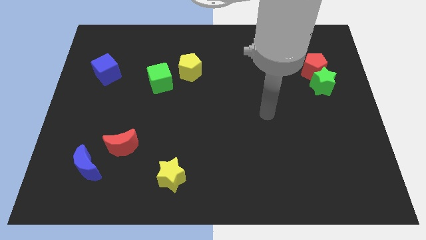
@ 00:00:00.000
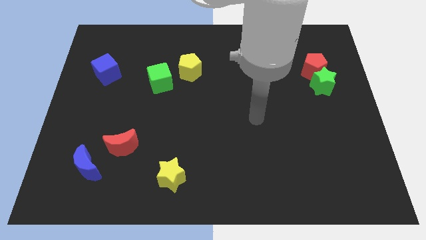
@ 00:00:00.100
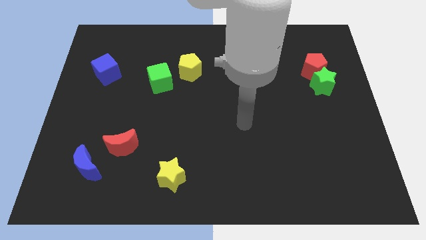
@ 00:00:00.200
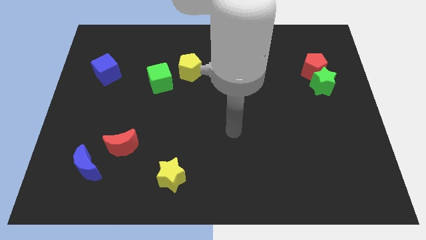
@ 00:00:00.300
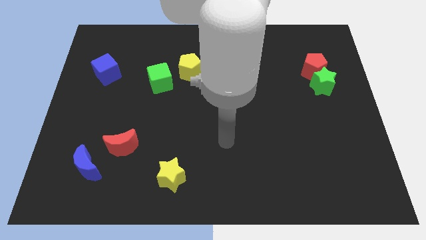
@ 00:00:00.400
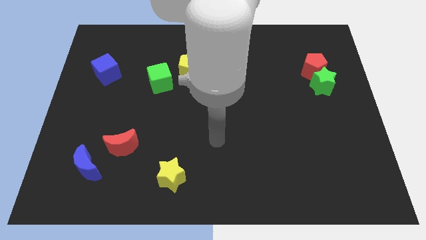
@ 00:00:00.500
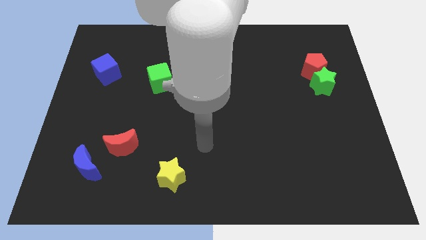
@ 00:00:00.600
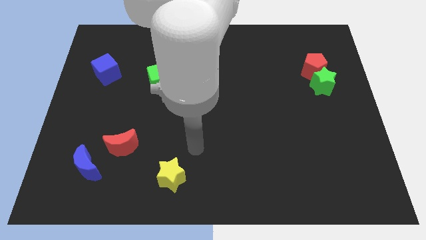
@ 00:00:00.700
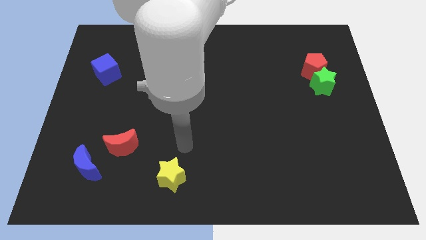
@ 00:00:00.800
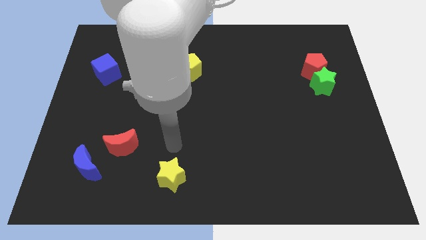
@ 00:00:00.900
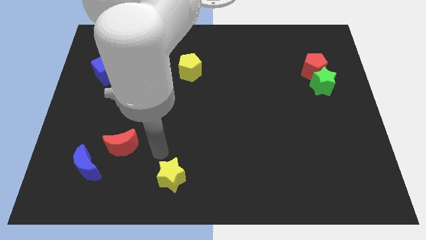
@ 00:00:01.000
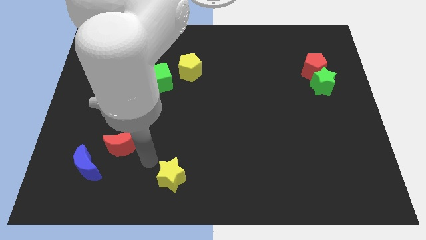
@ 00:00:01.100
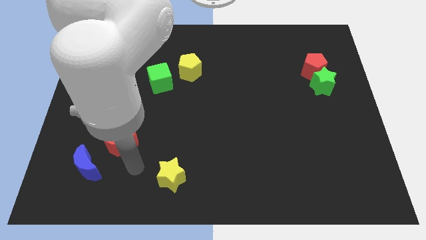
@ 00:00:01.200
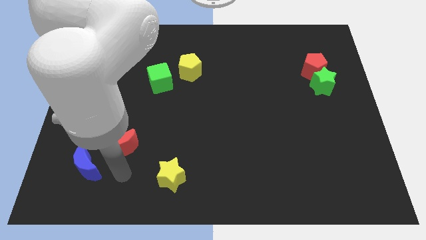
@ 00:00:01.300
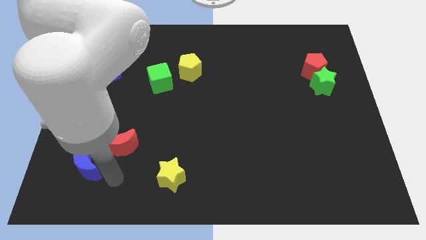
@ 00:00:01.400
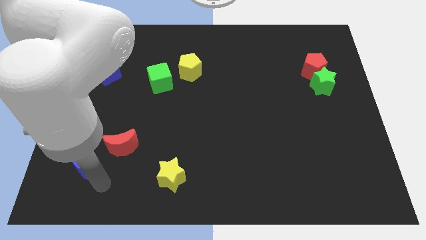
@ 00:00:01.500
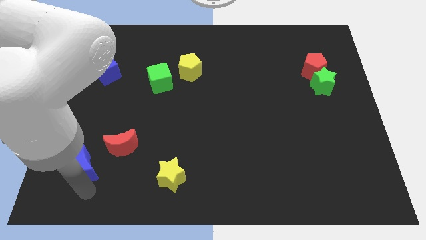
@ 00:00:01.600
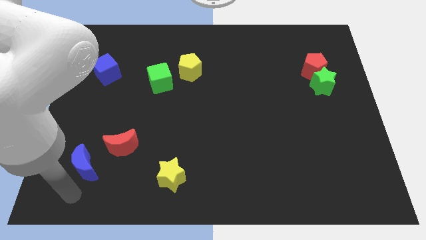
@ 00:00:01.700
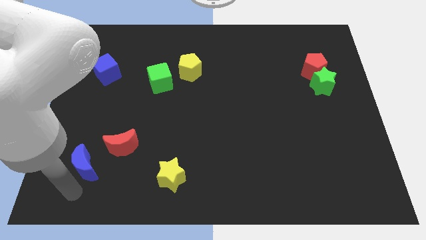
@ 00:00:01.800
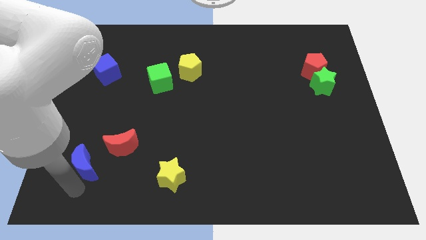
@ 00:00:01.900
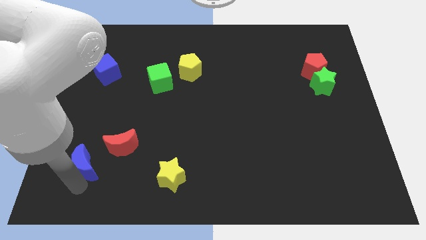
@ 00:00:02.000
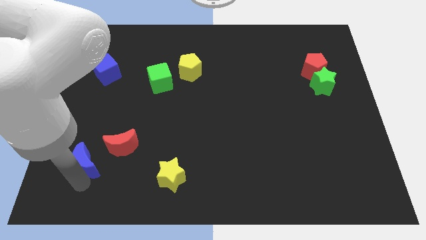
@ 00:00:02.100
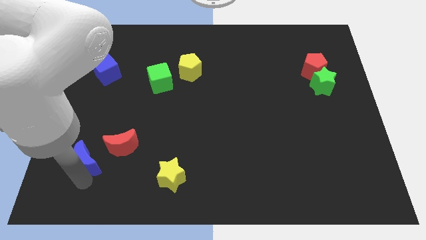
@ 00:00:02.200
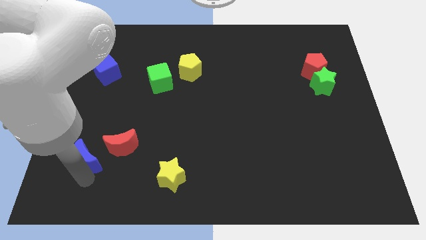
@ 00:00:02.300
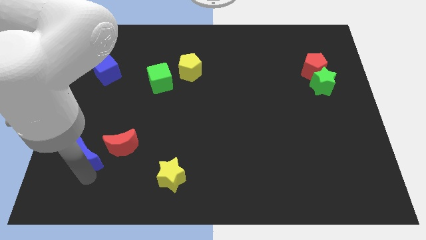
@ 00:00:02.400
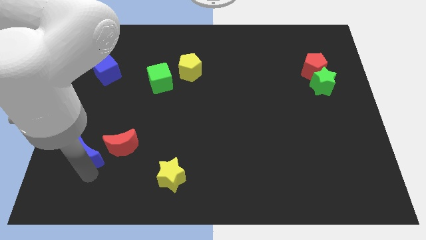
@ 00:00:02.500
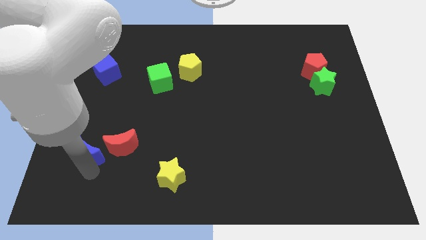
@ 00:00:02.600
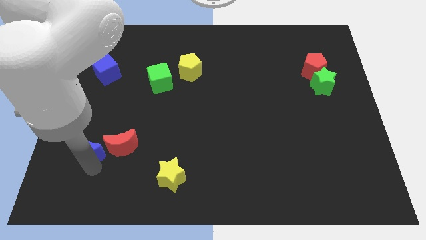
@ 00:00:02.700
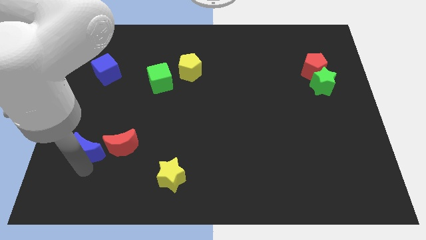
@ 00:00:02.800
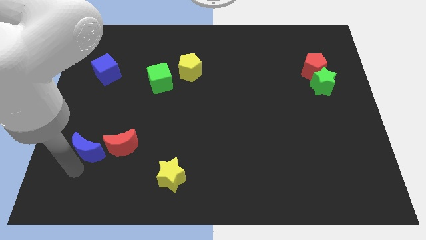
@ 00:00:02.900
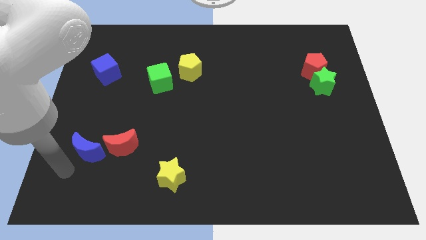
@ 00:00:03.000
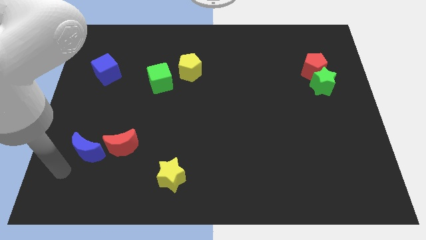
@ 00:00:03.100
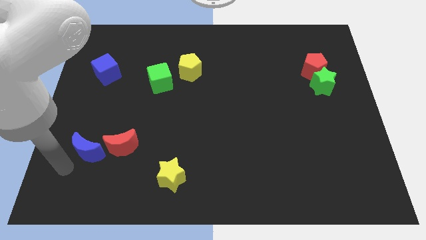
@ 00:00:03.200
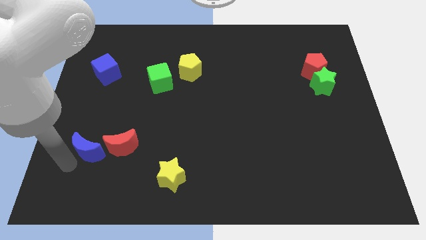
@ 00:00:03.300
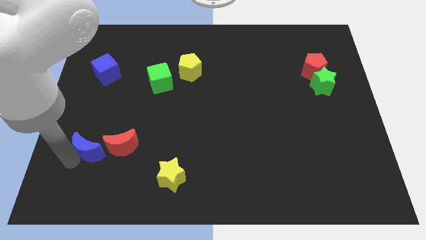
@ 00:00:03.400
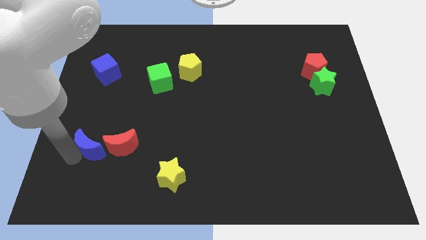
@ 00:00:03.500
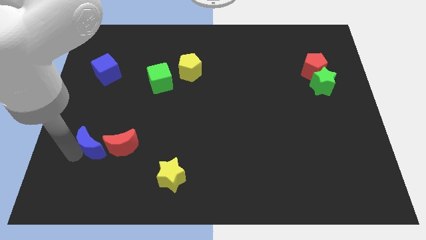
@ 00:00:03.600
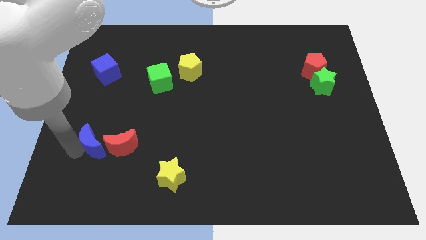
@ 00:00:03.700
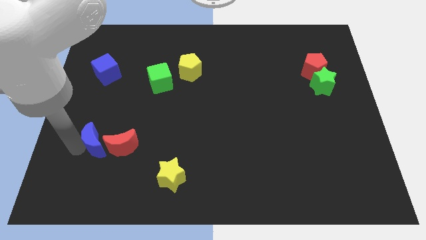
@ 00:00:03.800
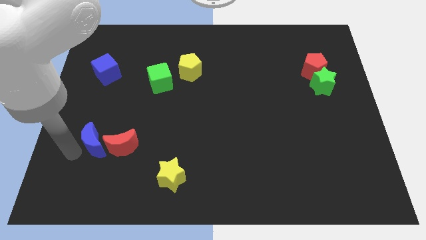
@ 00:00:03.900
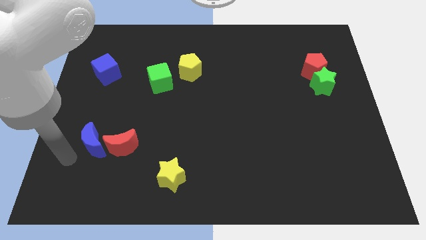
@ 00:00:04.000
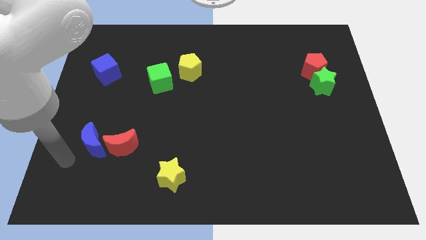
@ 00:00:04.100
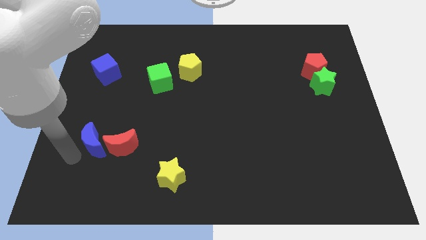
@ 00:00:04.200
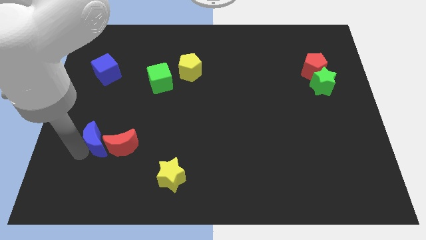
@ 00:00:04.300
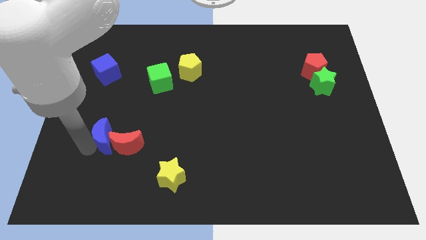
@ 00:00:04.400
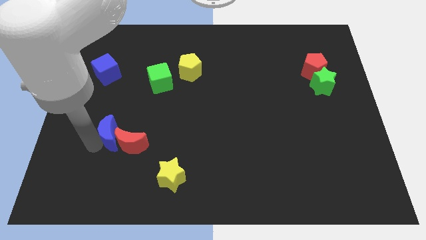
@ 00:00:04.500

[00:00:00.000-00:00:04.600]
move the blue moon a little bit upwards and right diagonally

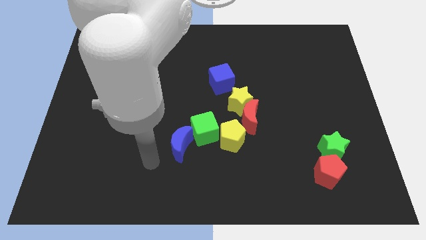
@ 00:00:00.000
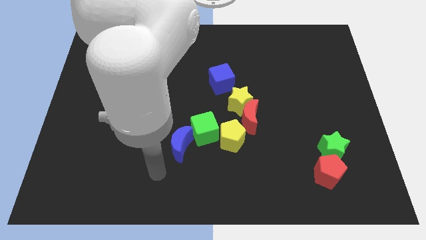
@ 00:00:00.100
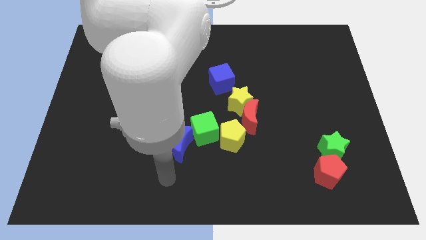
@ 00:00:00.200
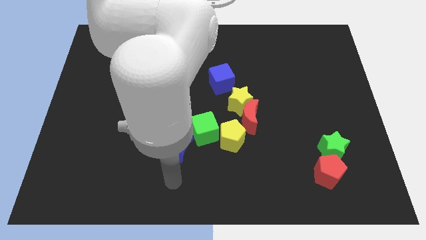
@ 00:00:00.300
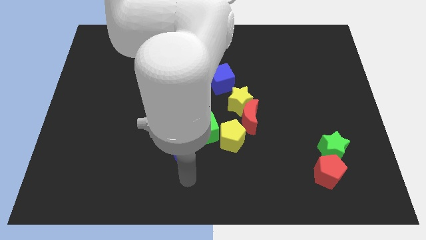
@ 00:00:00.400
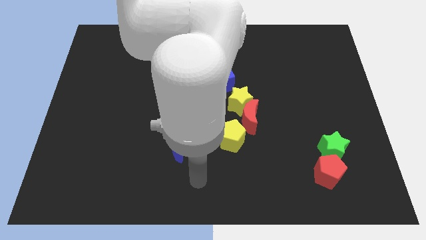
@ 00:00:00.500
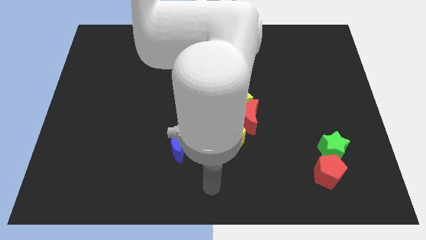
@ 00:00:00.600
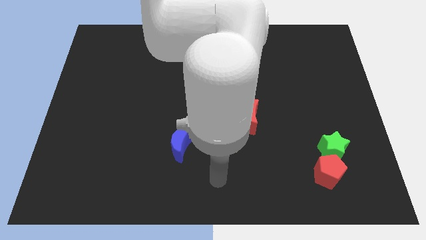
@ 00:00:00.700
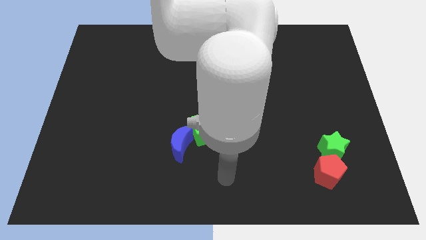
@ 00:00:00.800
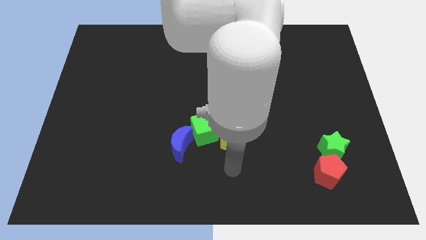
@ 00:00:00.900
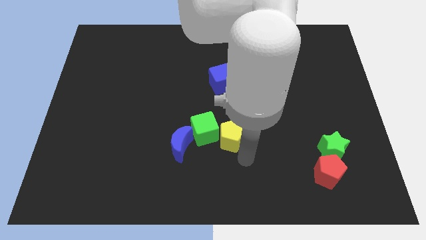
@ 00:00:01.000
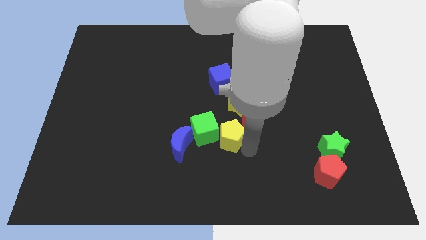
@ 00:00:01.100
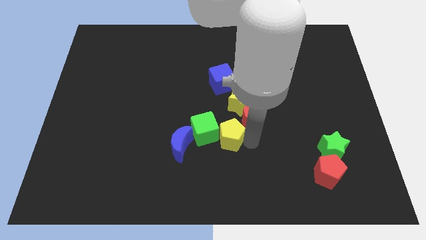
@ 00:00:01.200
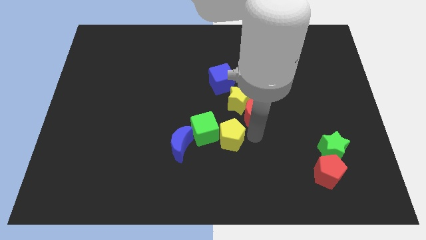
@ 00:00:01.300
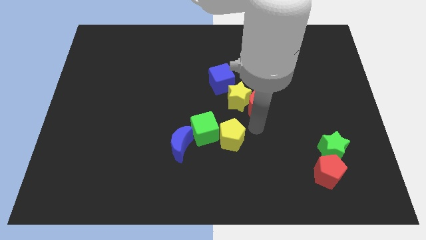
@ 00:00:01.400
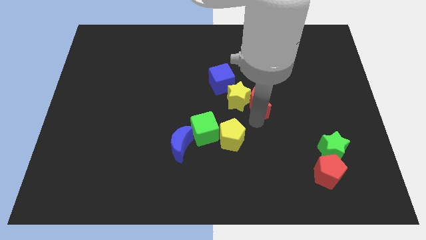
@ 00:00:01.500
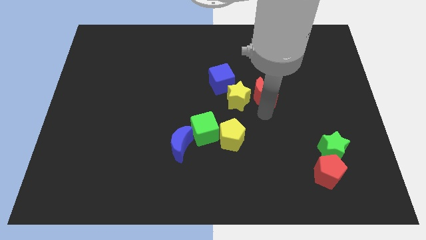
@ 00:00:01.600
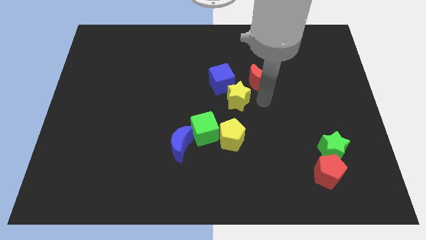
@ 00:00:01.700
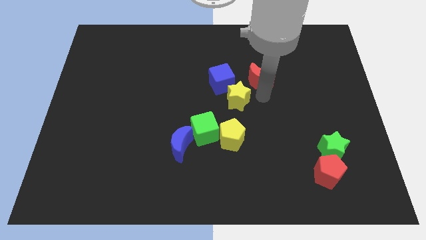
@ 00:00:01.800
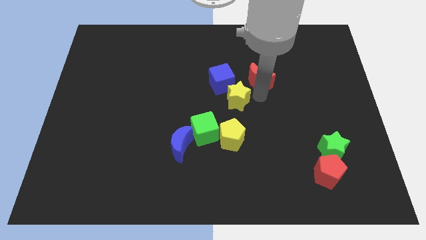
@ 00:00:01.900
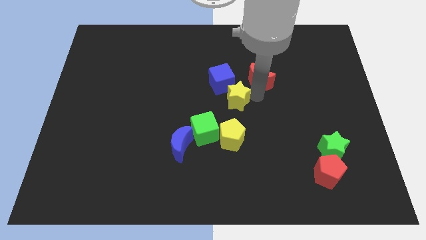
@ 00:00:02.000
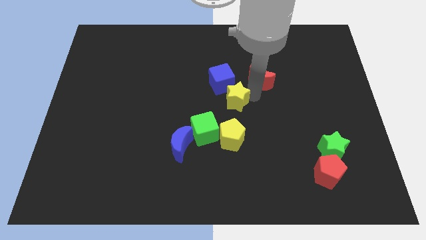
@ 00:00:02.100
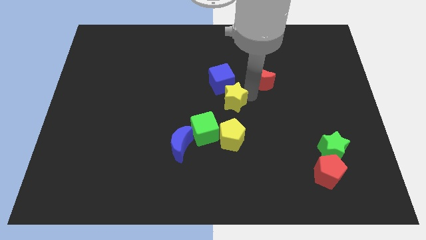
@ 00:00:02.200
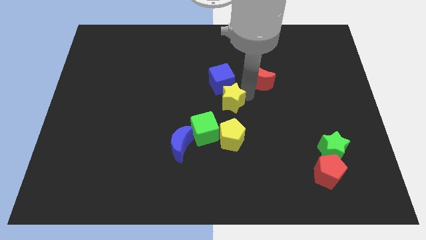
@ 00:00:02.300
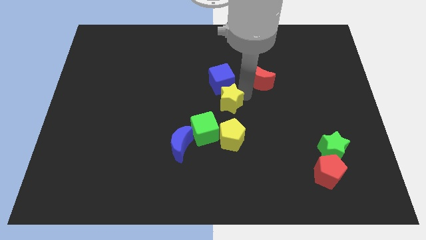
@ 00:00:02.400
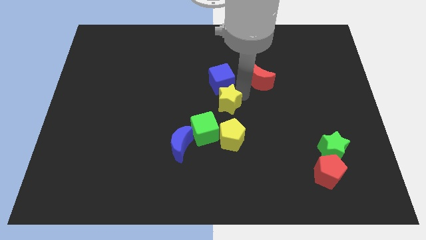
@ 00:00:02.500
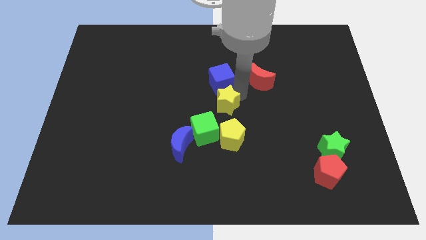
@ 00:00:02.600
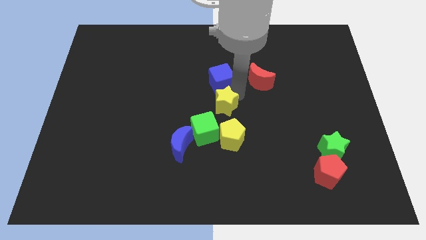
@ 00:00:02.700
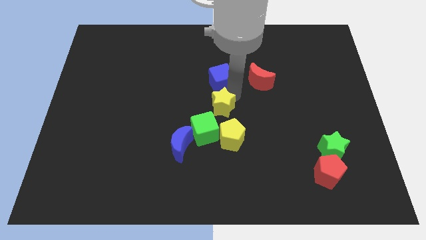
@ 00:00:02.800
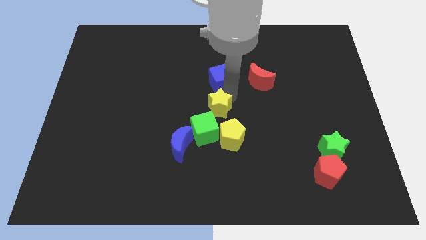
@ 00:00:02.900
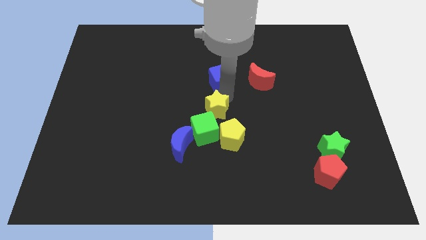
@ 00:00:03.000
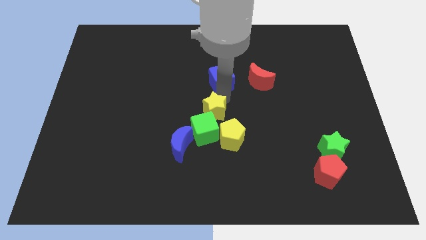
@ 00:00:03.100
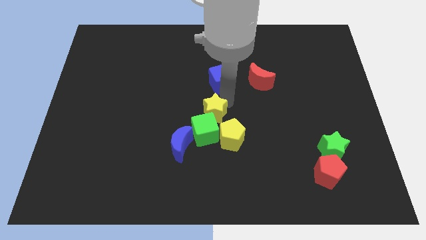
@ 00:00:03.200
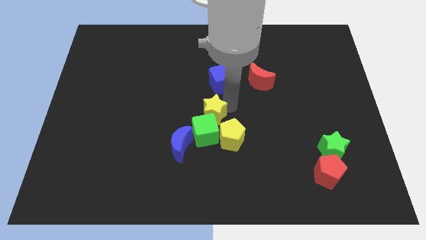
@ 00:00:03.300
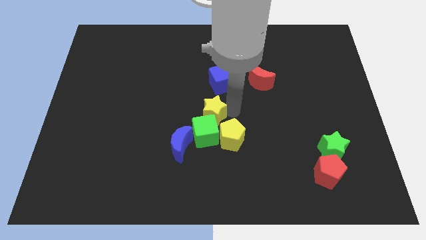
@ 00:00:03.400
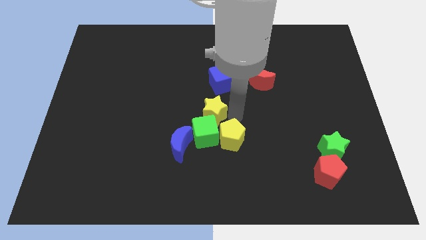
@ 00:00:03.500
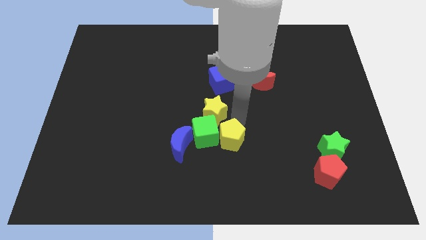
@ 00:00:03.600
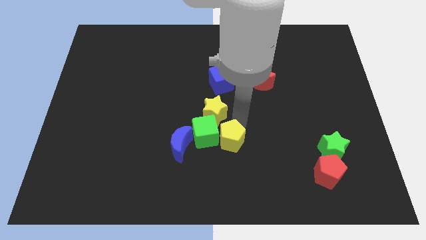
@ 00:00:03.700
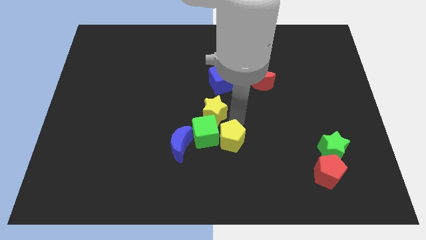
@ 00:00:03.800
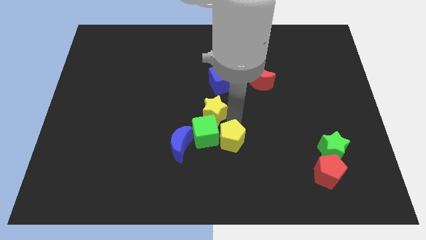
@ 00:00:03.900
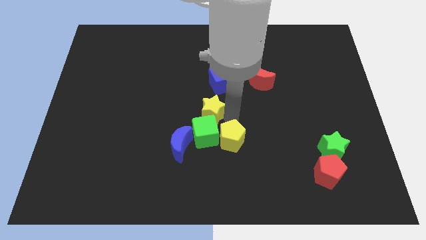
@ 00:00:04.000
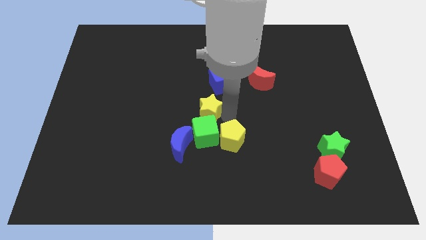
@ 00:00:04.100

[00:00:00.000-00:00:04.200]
move the yellow star somewhat to the left
